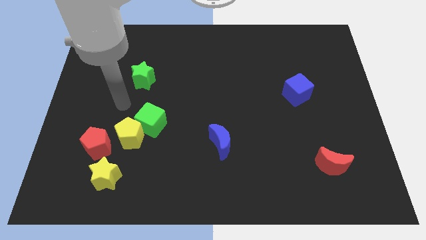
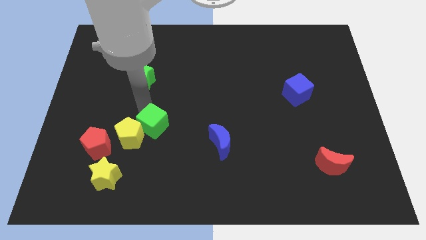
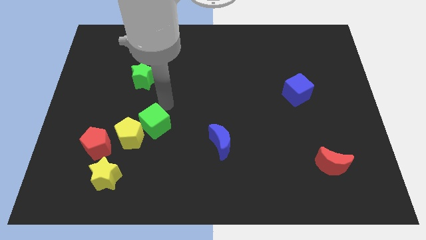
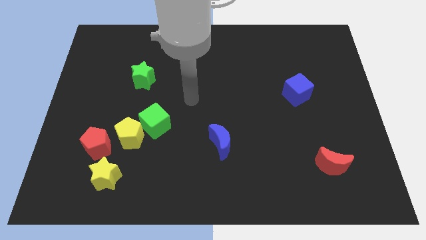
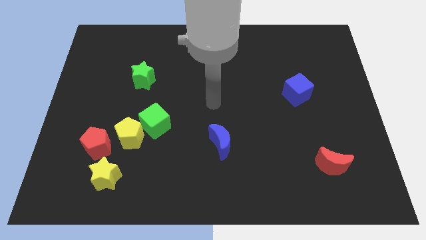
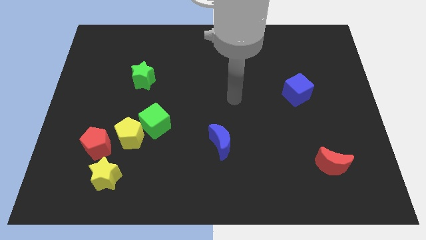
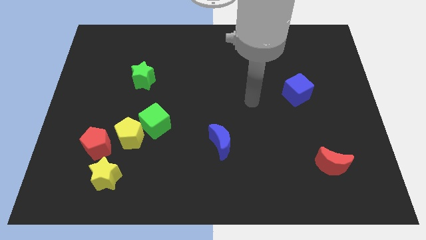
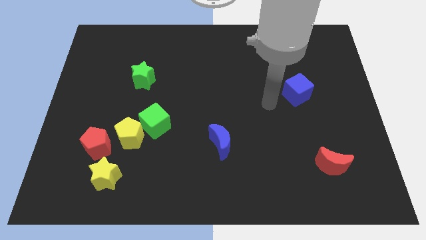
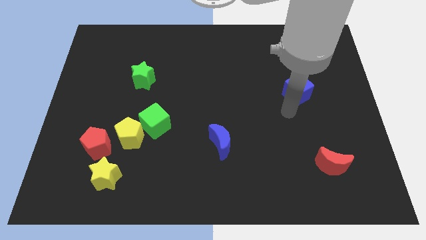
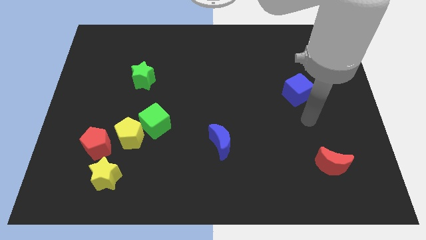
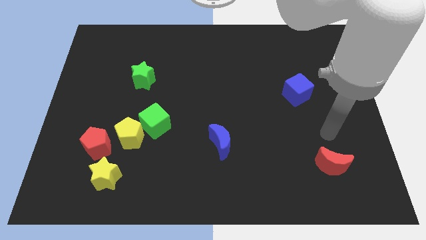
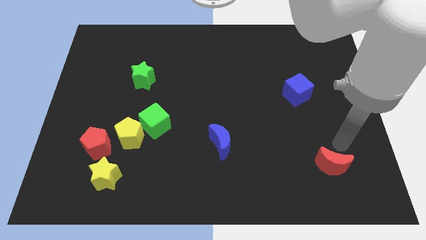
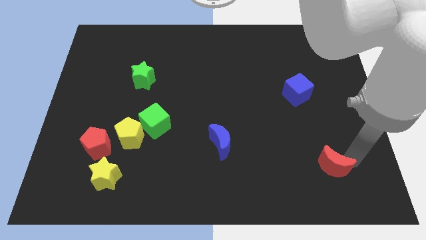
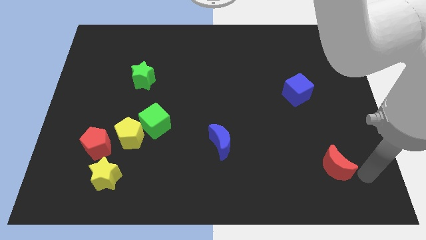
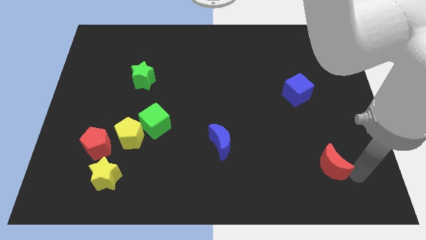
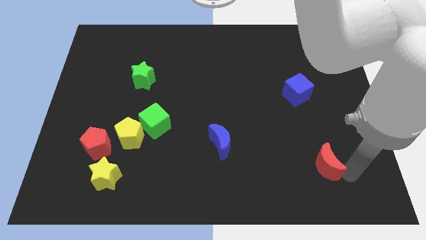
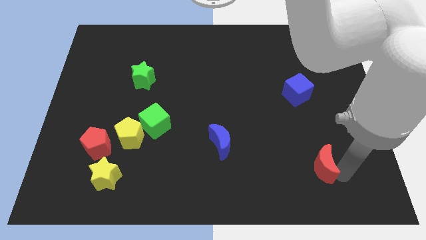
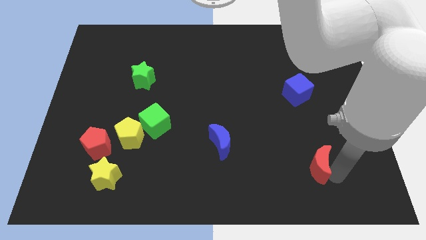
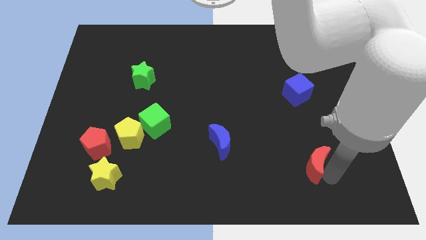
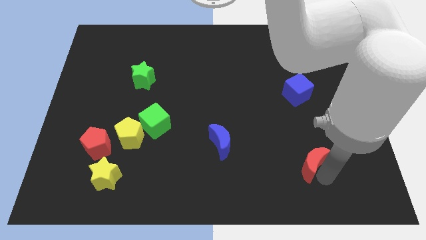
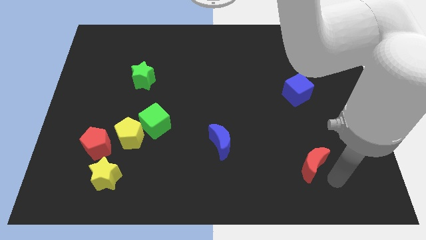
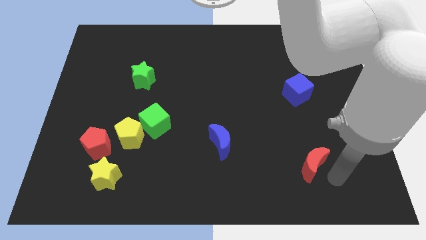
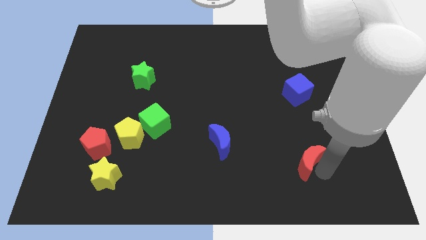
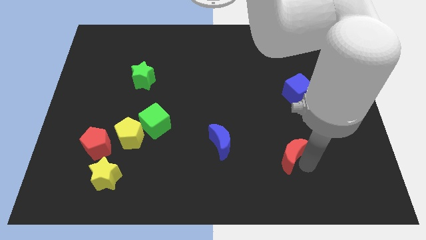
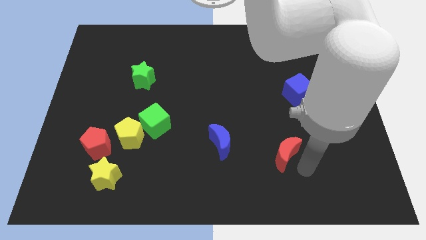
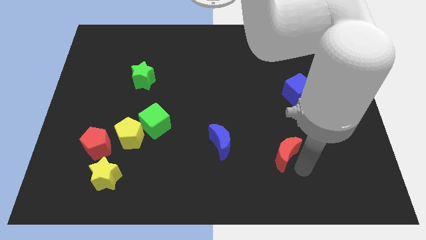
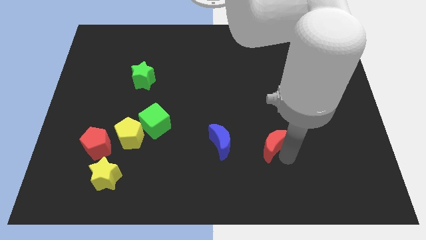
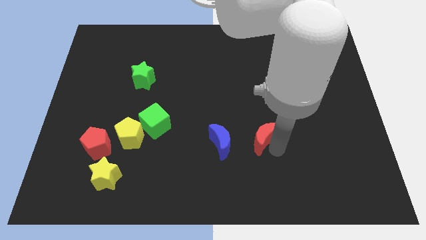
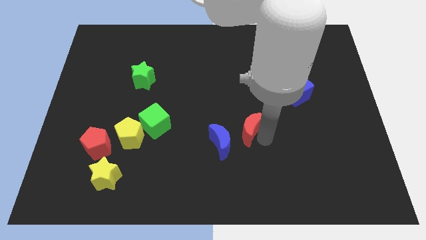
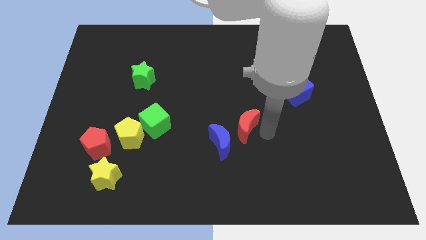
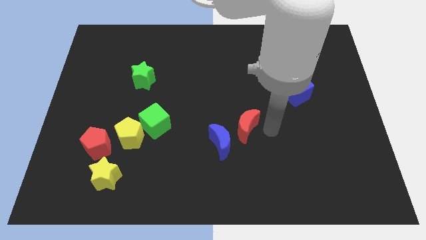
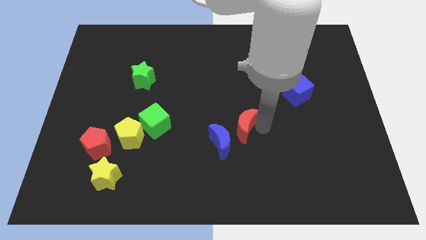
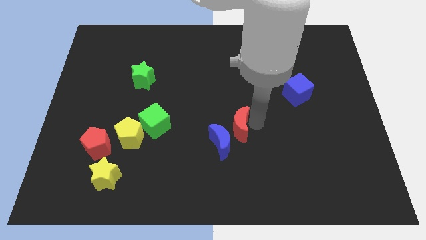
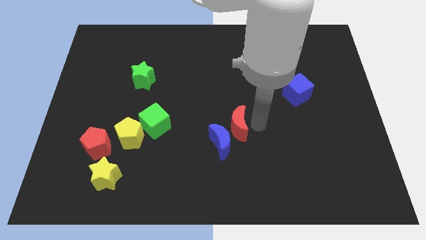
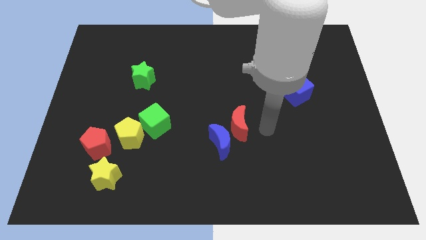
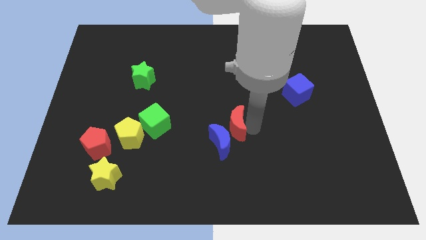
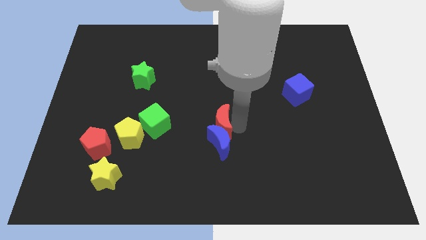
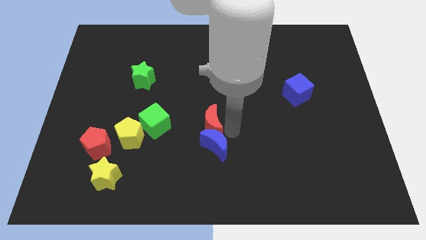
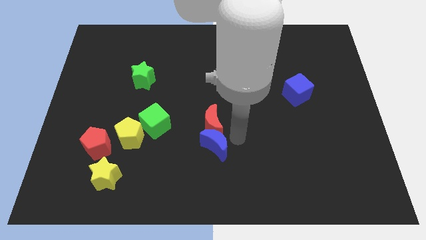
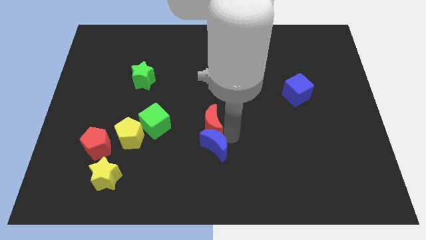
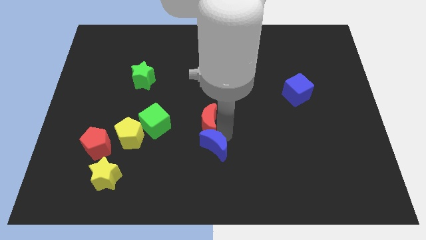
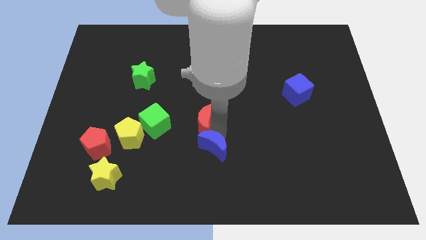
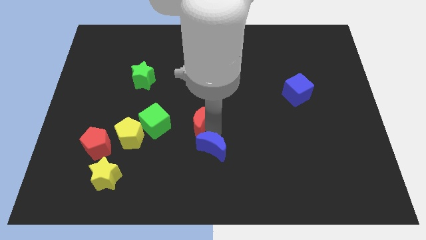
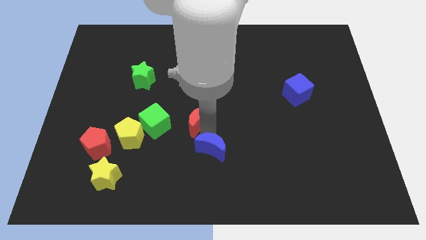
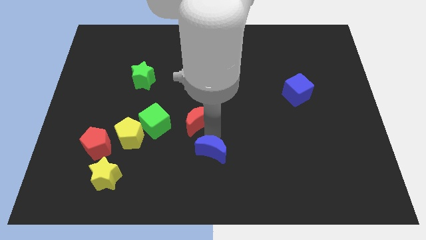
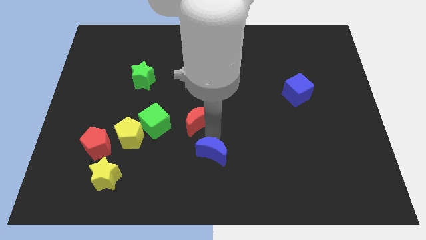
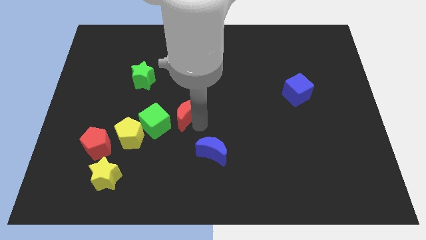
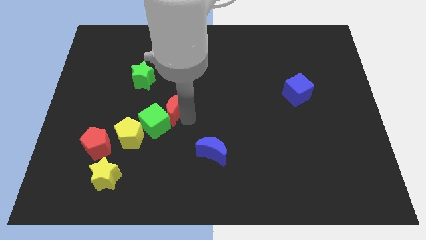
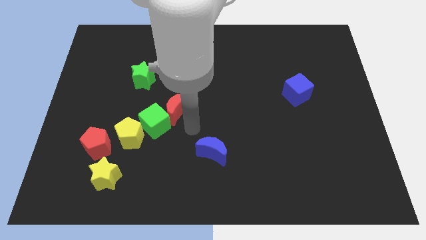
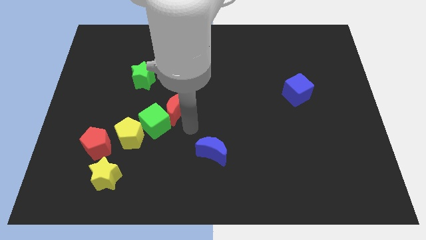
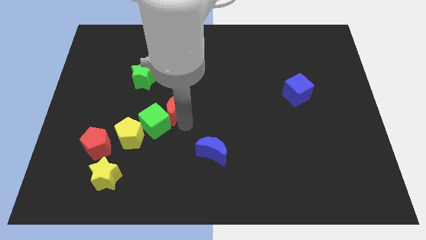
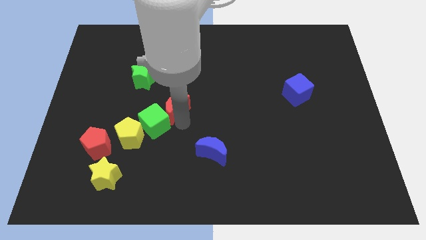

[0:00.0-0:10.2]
move the red moon to the bottom right of the green star

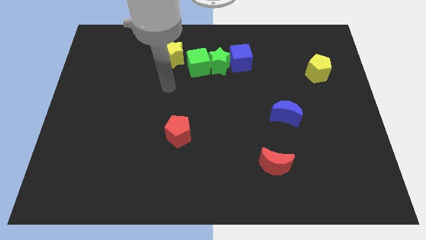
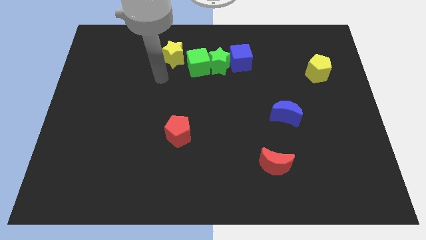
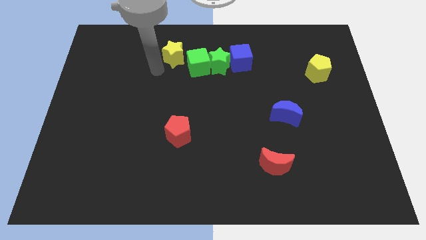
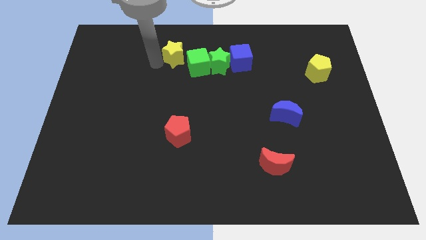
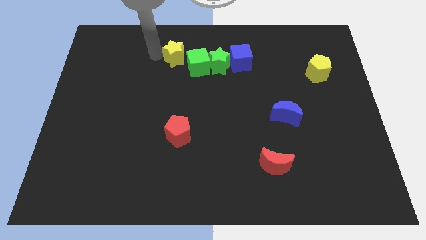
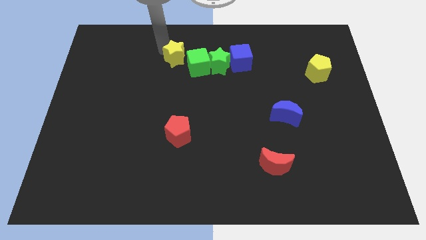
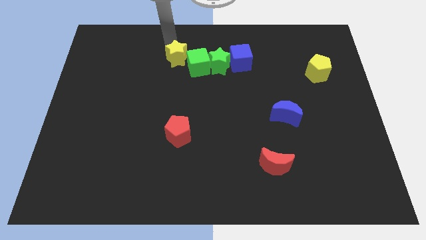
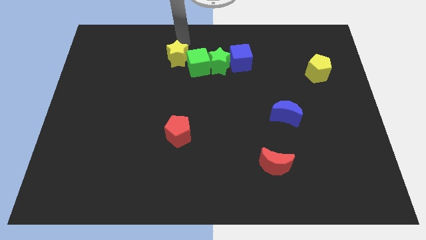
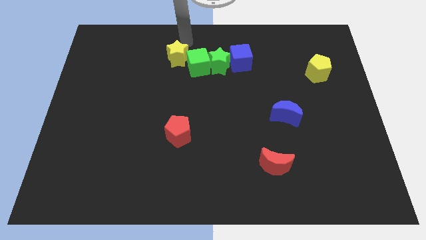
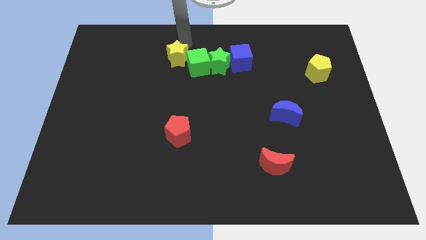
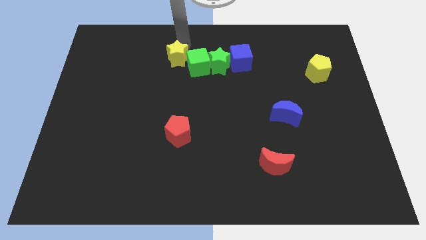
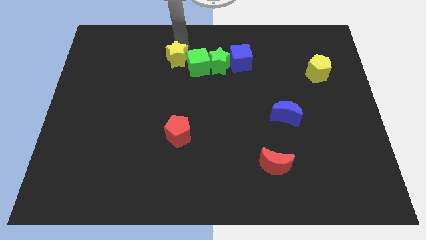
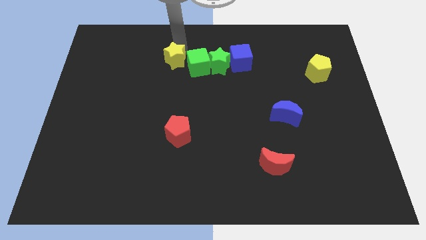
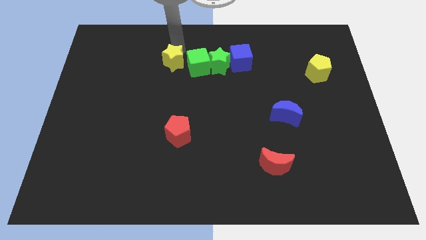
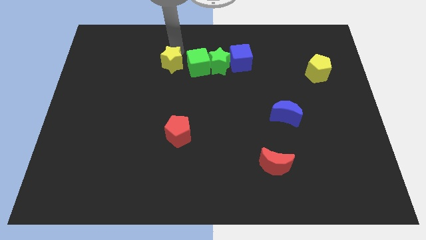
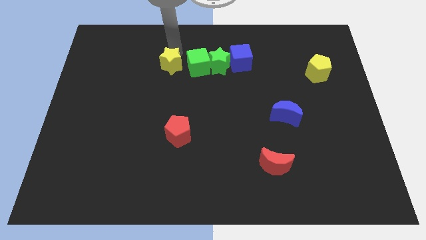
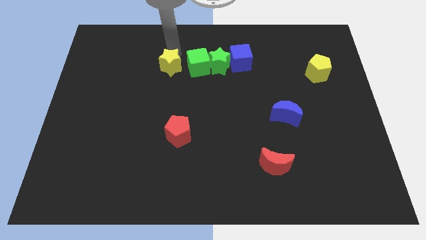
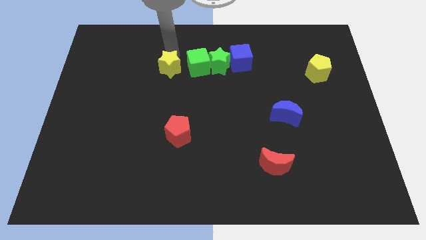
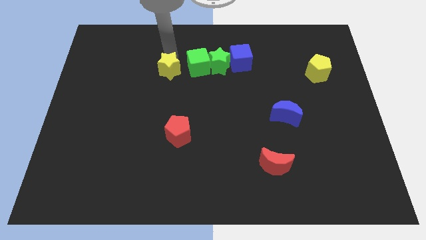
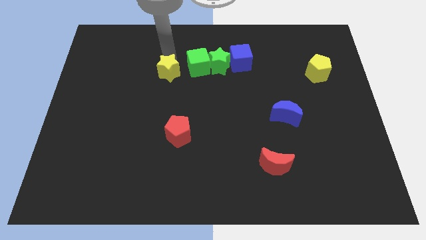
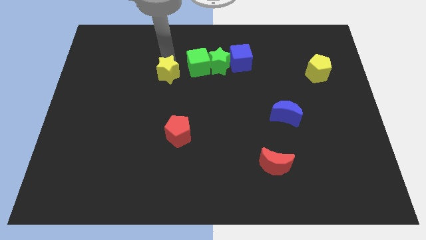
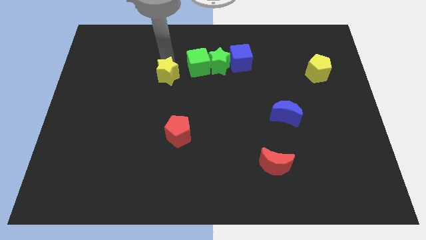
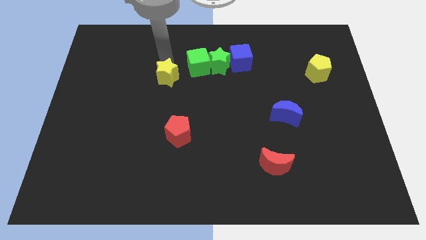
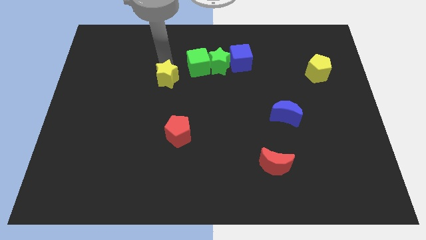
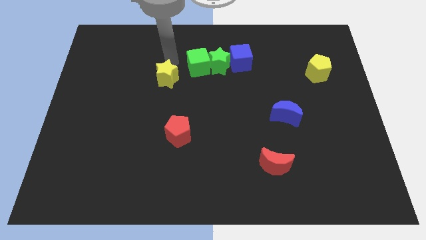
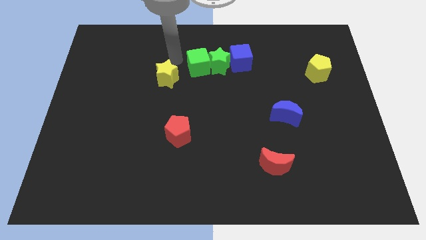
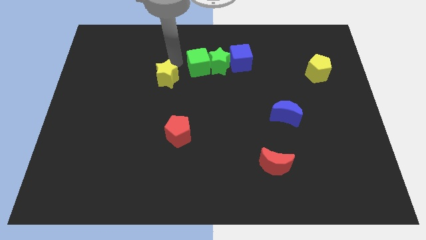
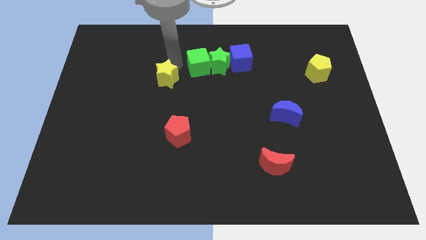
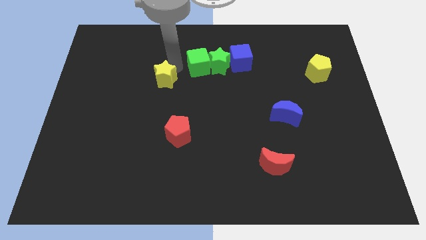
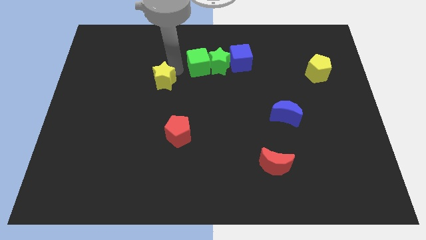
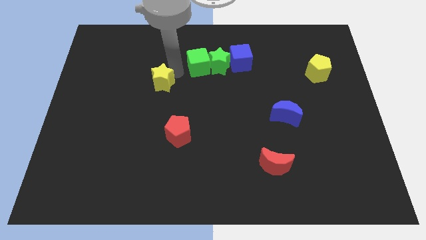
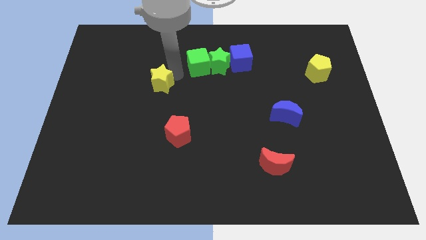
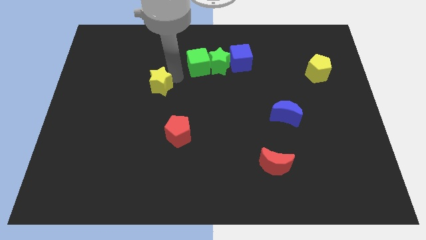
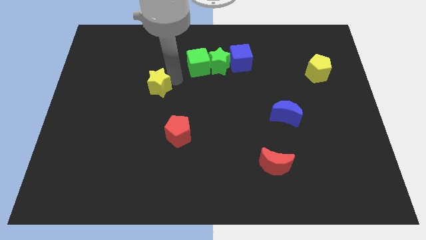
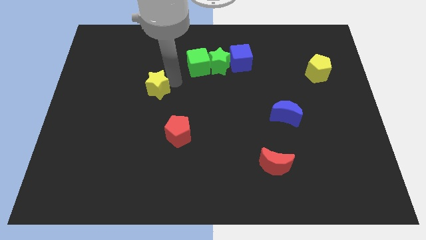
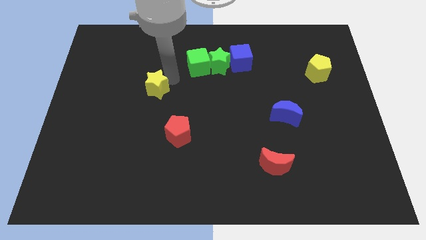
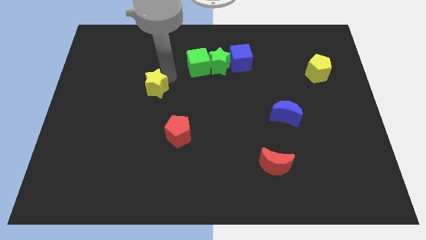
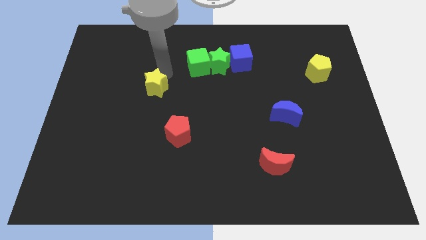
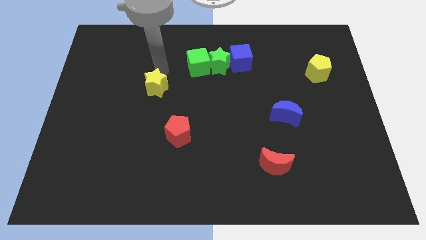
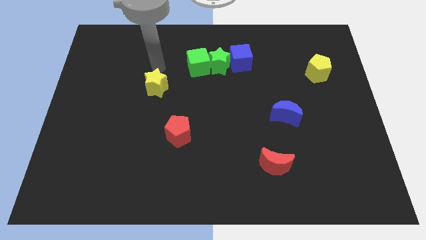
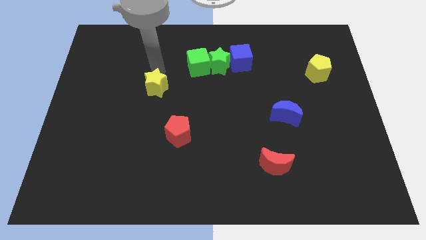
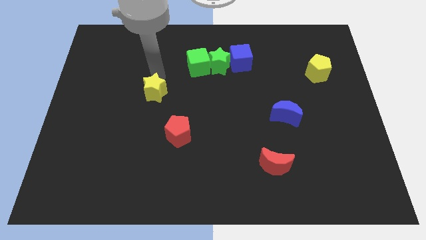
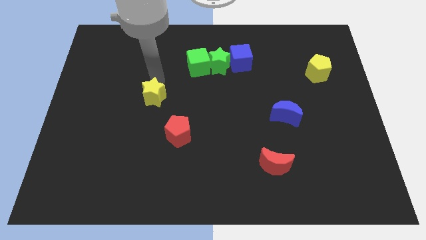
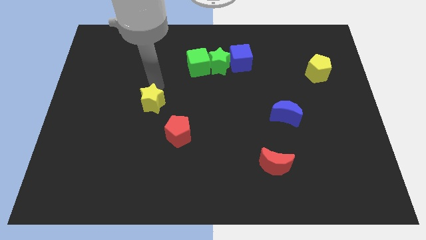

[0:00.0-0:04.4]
push the yellow star diagonally up and to the left of the red pentagon
